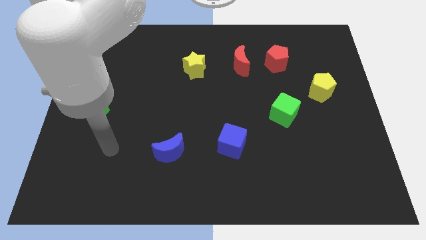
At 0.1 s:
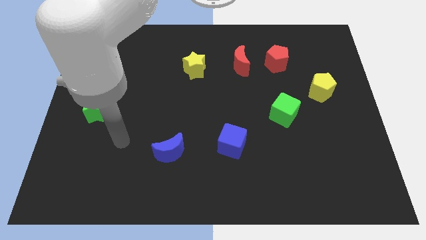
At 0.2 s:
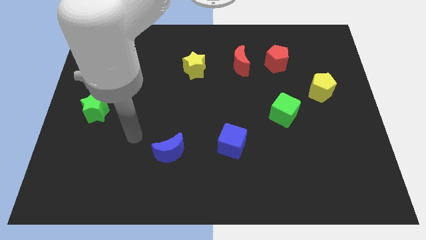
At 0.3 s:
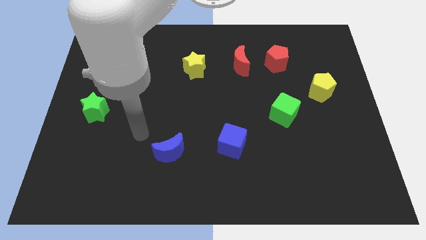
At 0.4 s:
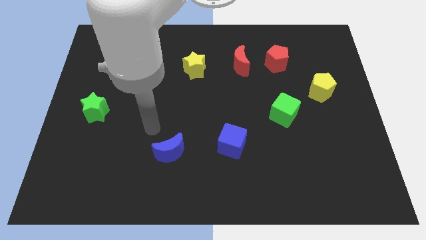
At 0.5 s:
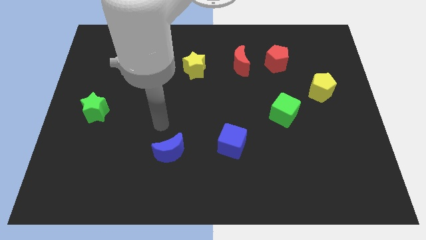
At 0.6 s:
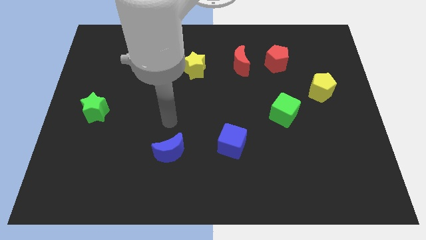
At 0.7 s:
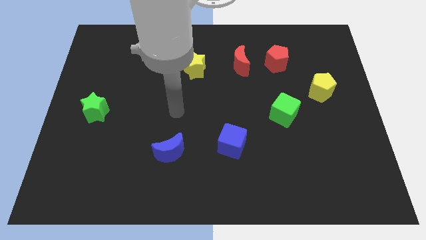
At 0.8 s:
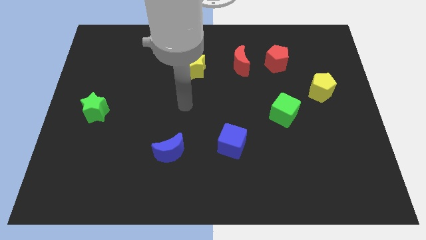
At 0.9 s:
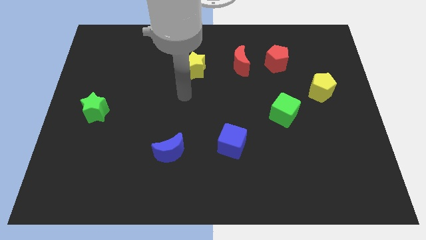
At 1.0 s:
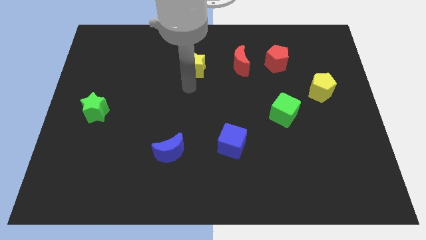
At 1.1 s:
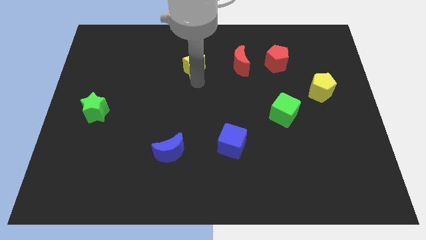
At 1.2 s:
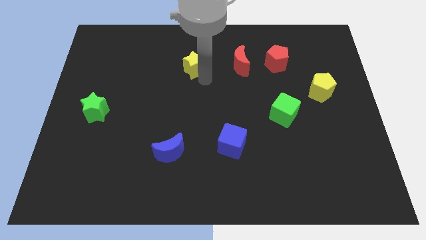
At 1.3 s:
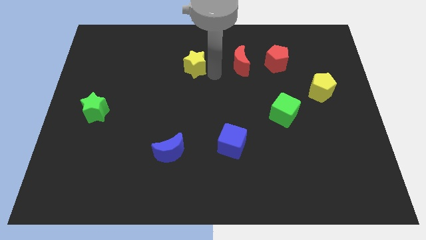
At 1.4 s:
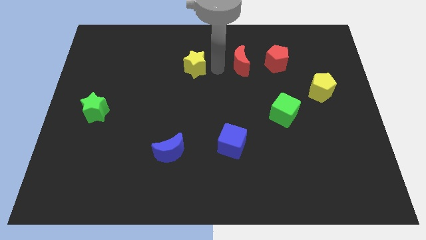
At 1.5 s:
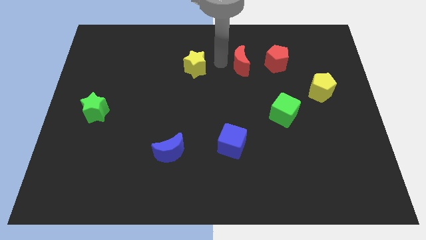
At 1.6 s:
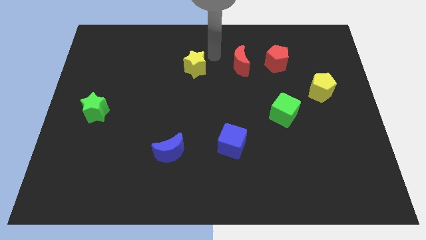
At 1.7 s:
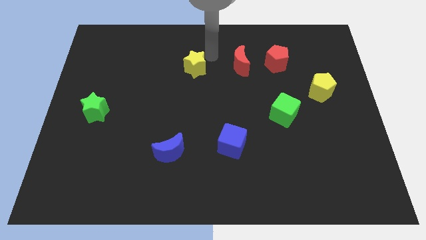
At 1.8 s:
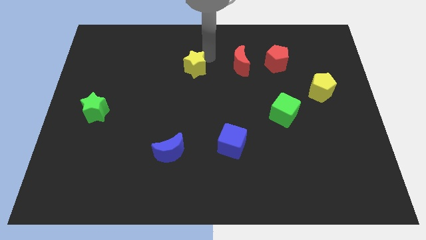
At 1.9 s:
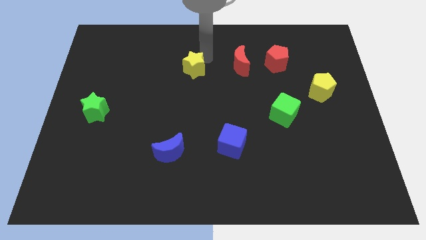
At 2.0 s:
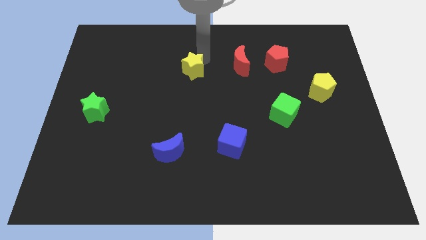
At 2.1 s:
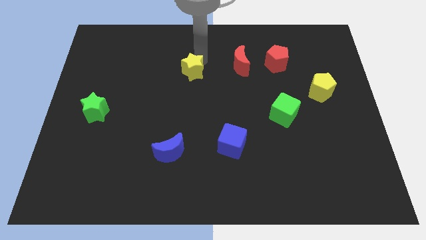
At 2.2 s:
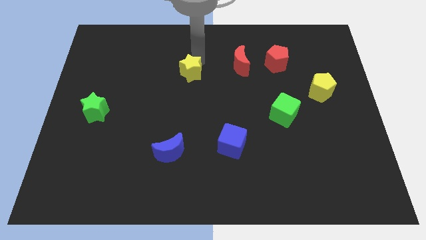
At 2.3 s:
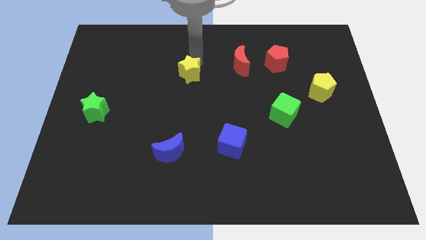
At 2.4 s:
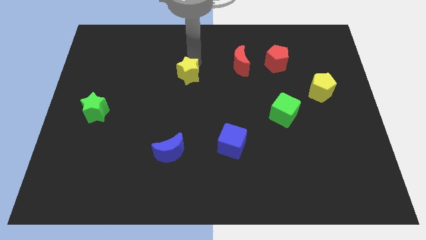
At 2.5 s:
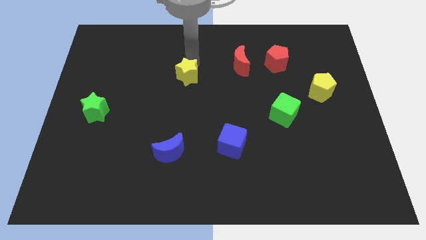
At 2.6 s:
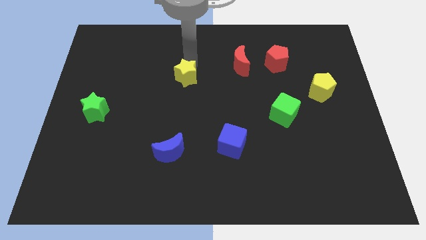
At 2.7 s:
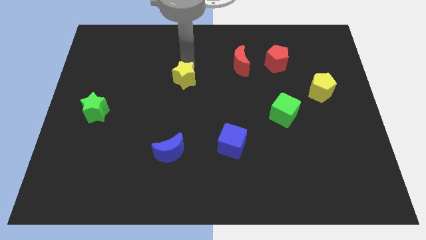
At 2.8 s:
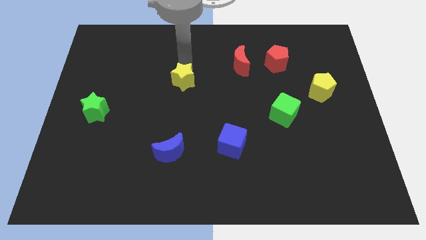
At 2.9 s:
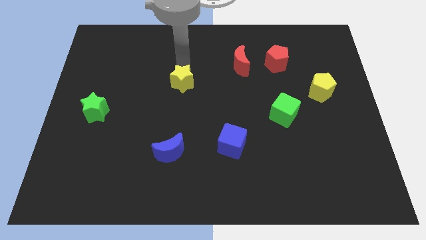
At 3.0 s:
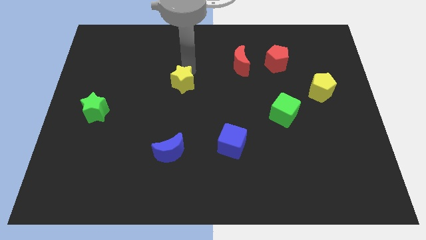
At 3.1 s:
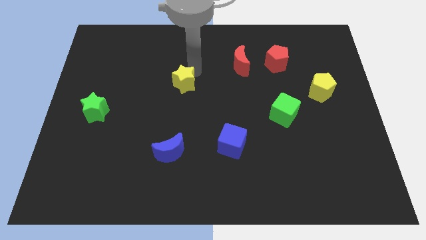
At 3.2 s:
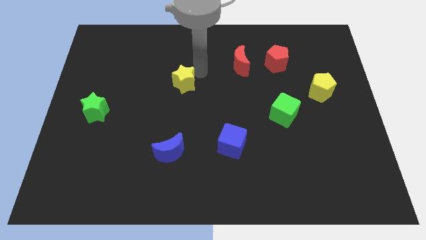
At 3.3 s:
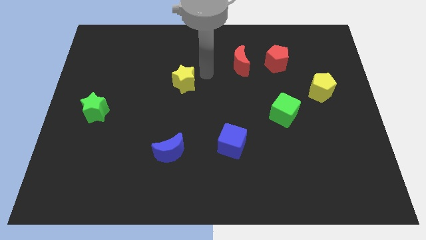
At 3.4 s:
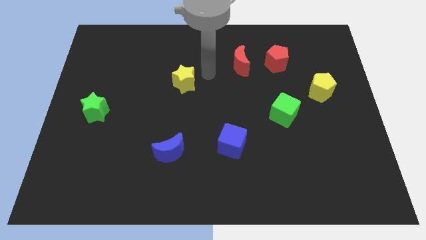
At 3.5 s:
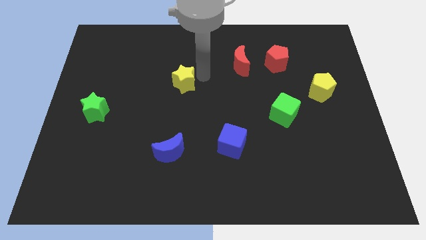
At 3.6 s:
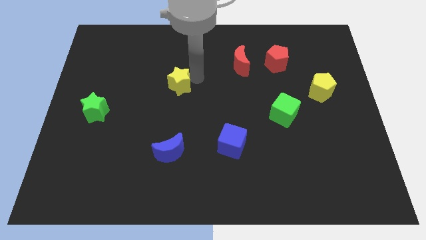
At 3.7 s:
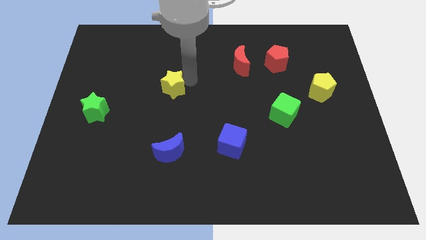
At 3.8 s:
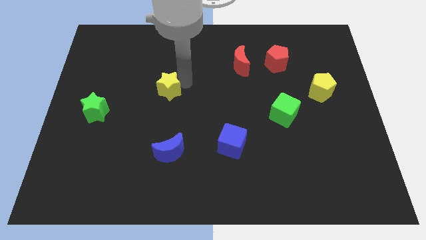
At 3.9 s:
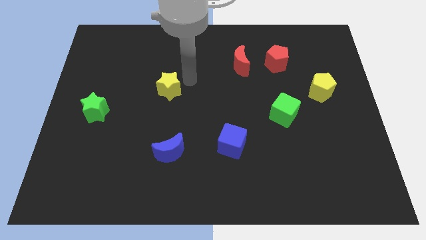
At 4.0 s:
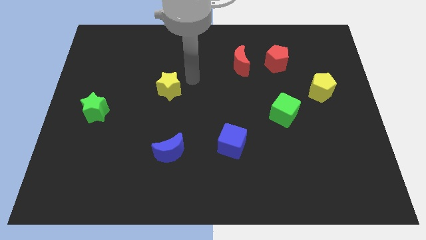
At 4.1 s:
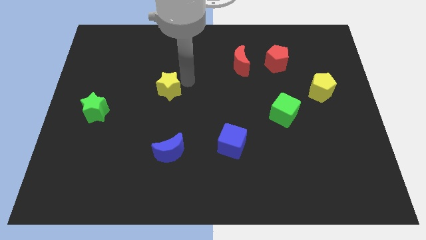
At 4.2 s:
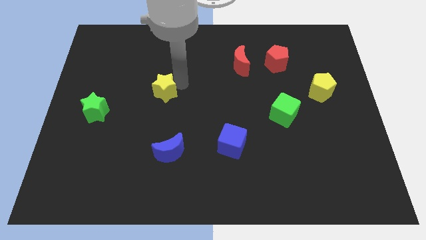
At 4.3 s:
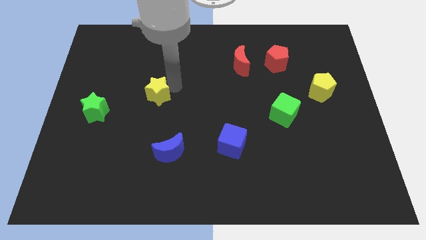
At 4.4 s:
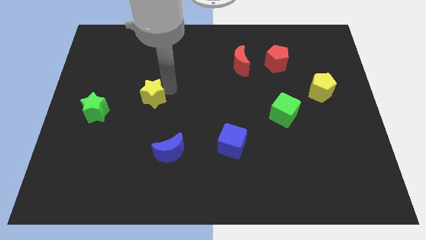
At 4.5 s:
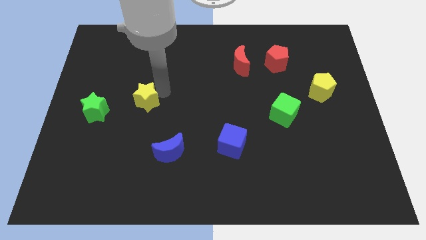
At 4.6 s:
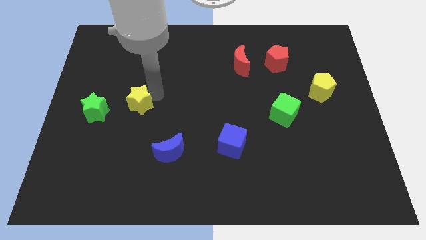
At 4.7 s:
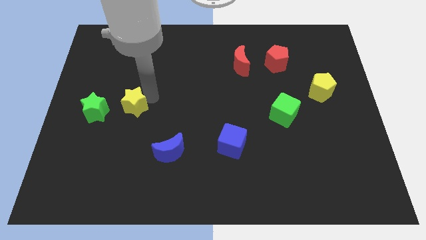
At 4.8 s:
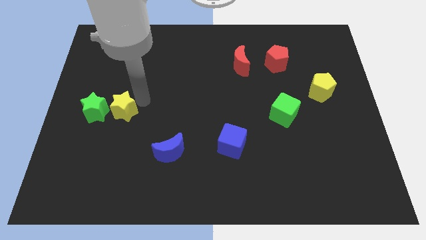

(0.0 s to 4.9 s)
slide the yellow star down and then to the left

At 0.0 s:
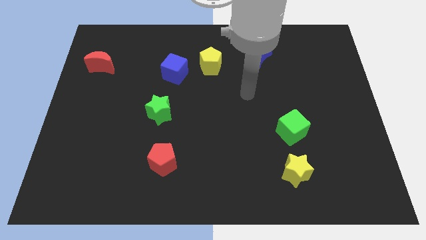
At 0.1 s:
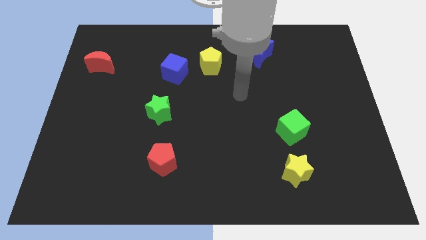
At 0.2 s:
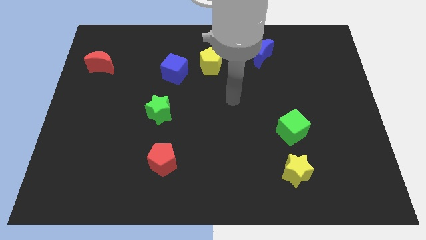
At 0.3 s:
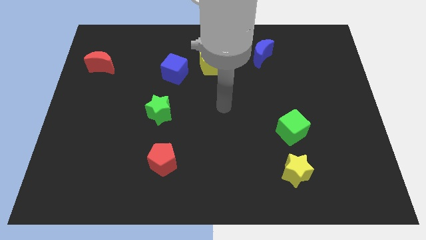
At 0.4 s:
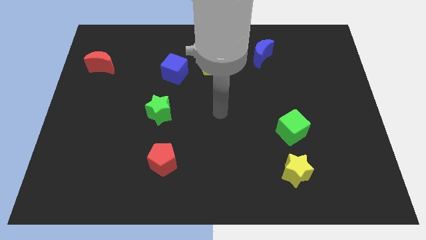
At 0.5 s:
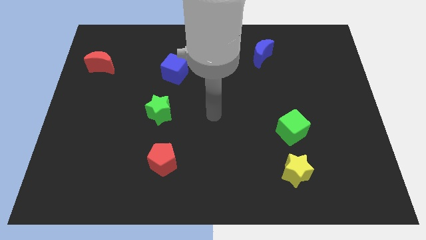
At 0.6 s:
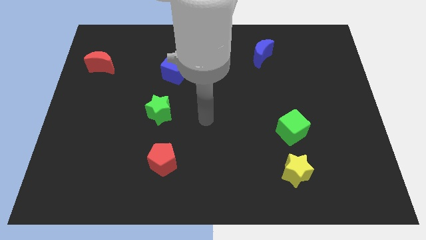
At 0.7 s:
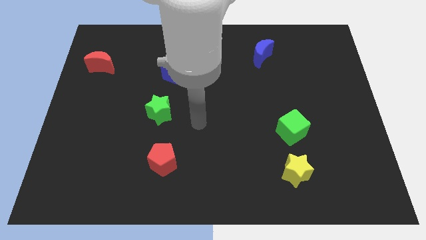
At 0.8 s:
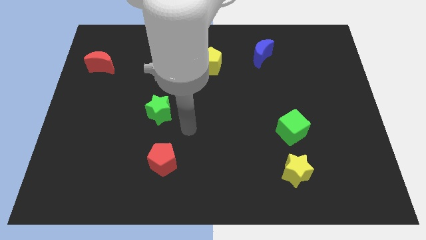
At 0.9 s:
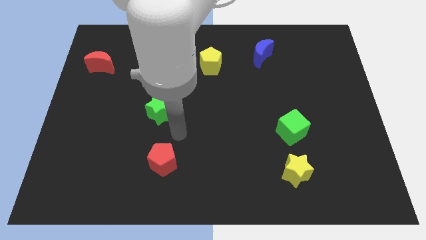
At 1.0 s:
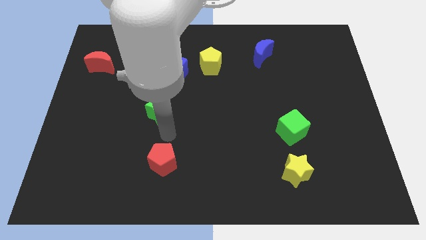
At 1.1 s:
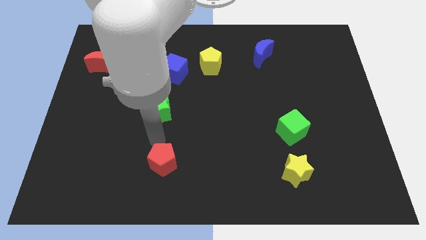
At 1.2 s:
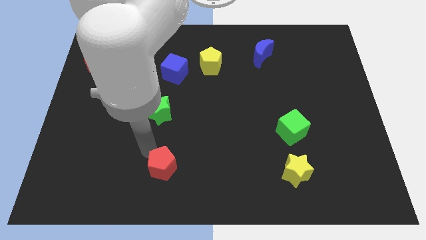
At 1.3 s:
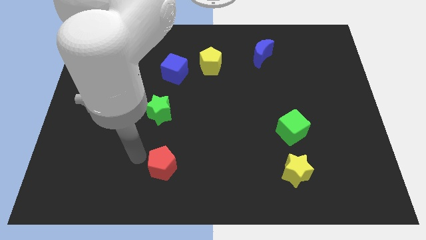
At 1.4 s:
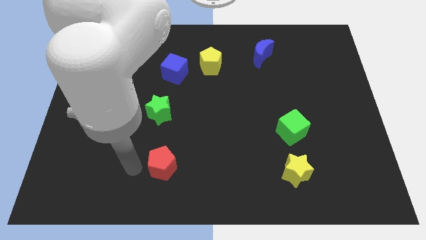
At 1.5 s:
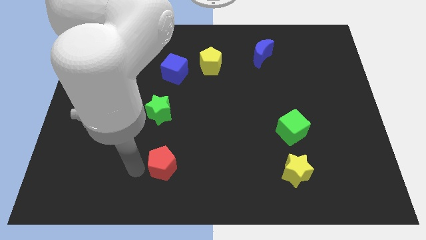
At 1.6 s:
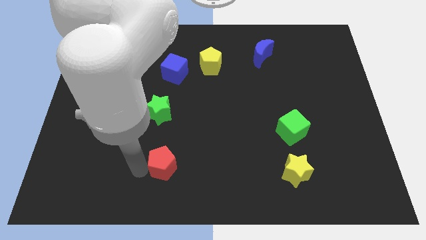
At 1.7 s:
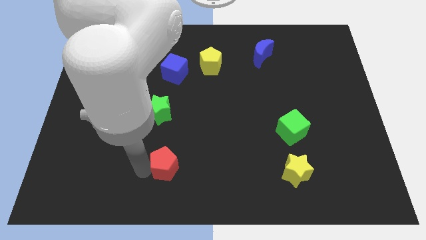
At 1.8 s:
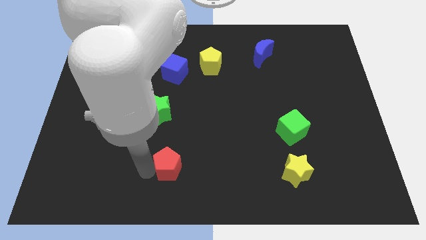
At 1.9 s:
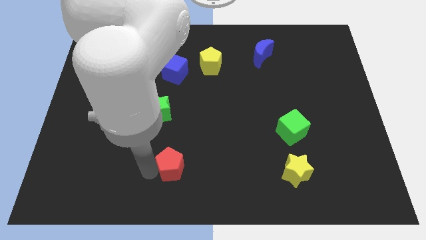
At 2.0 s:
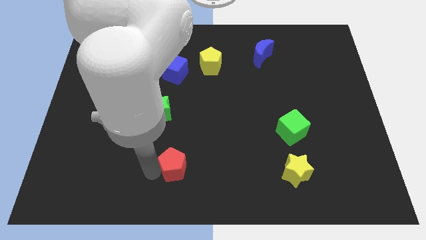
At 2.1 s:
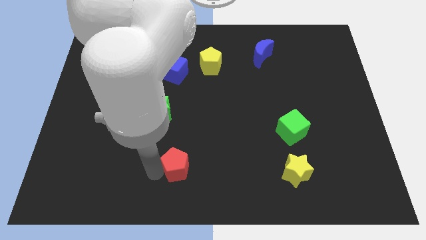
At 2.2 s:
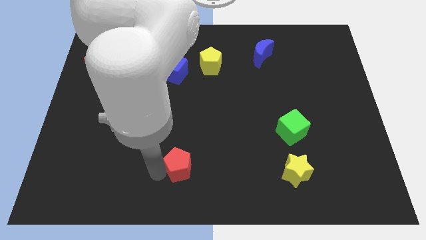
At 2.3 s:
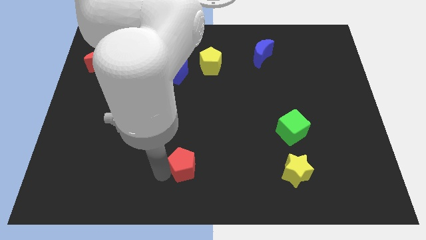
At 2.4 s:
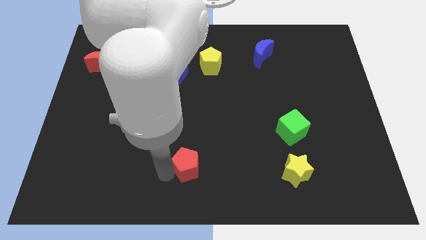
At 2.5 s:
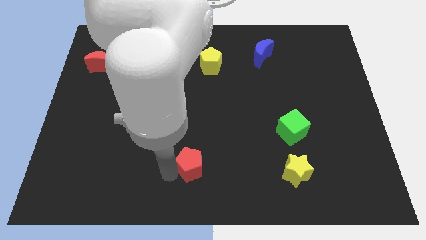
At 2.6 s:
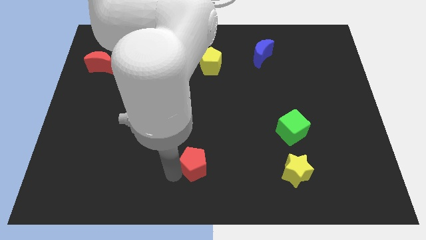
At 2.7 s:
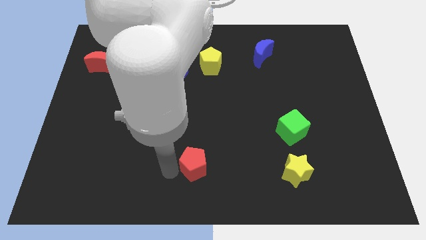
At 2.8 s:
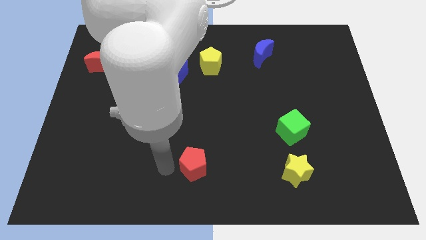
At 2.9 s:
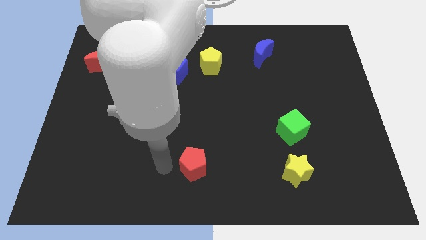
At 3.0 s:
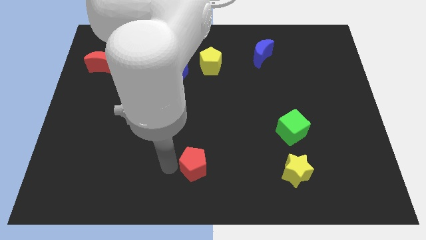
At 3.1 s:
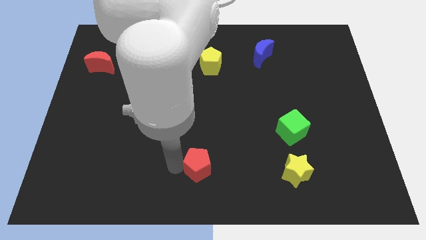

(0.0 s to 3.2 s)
slide the red pentagon right somewhat
